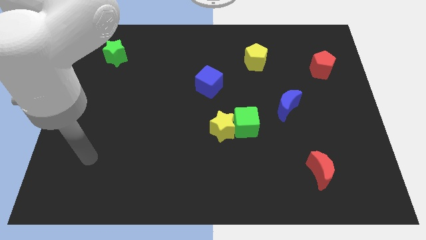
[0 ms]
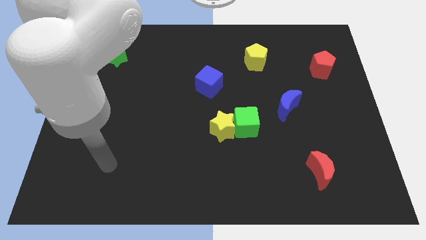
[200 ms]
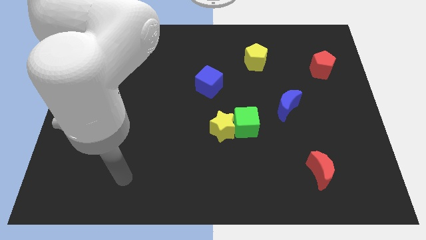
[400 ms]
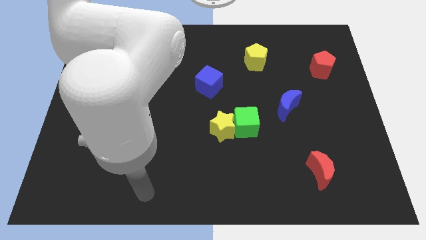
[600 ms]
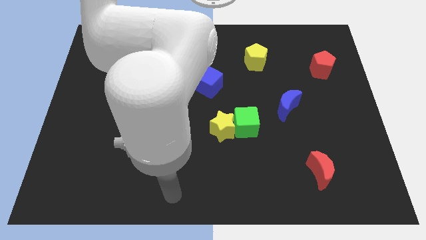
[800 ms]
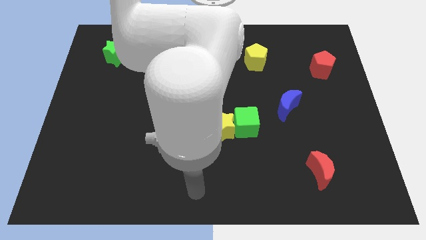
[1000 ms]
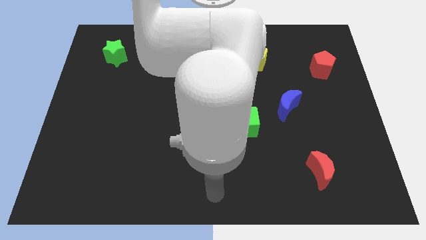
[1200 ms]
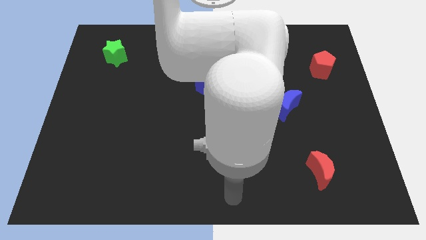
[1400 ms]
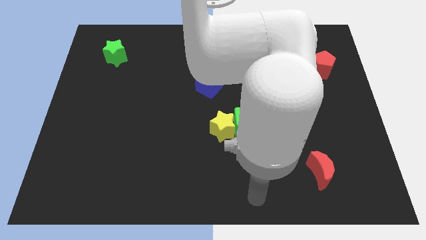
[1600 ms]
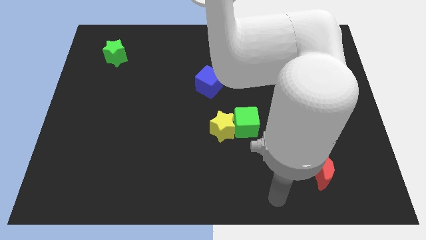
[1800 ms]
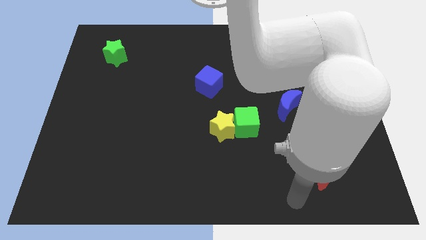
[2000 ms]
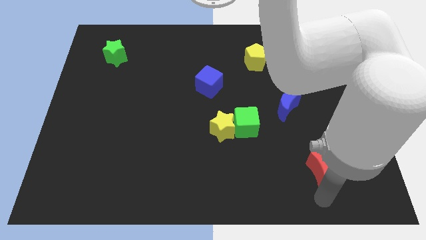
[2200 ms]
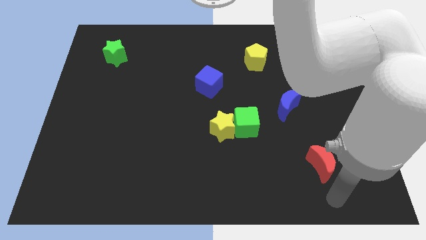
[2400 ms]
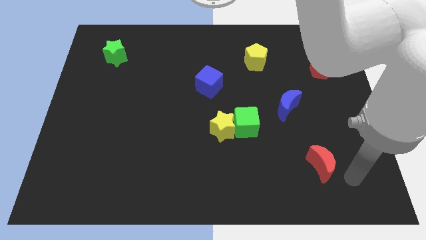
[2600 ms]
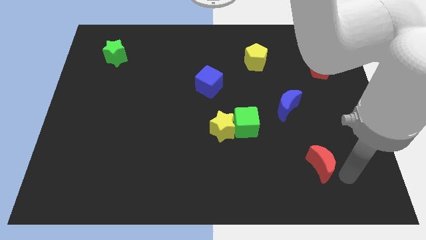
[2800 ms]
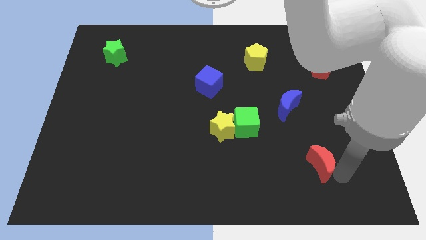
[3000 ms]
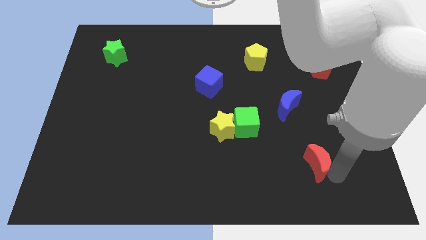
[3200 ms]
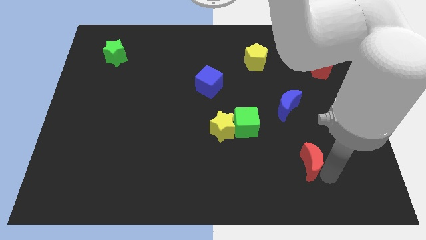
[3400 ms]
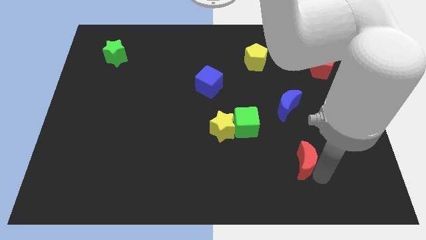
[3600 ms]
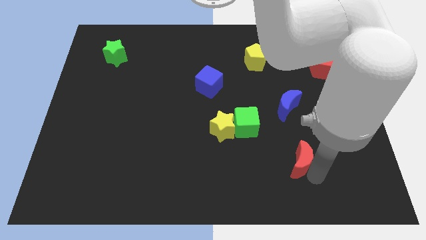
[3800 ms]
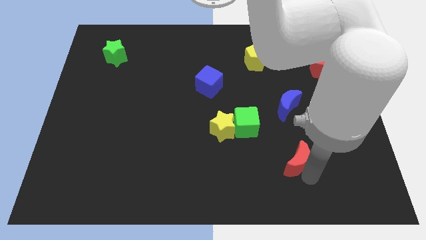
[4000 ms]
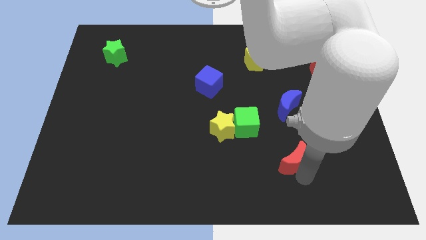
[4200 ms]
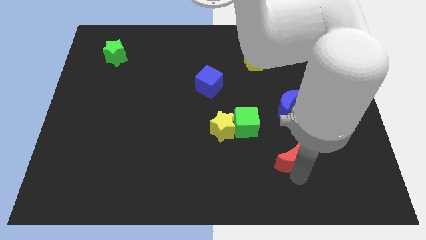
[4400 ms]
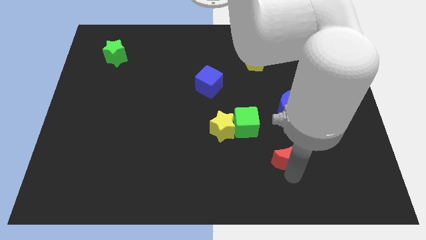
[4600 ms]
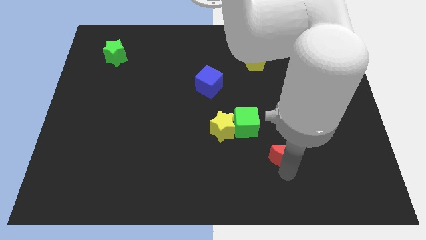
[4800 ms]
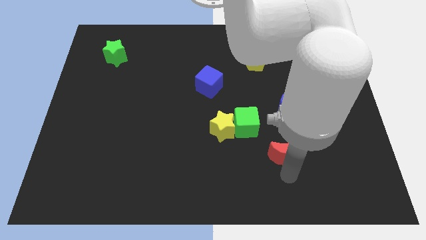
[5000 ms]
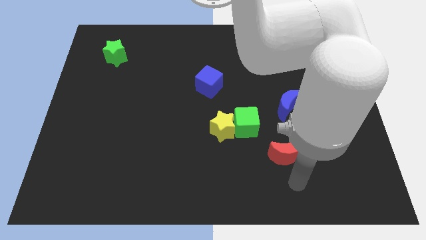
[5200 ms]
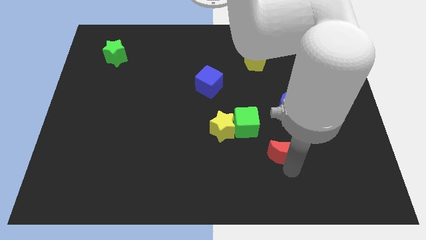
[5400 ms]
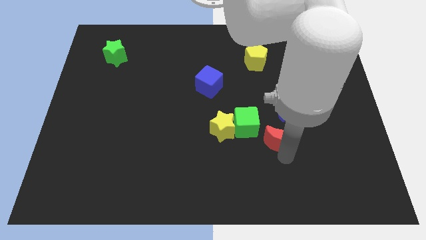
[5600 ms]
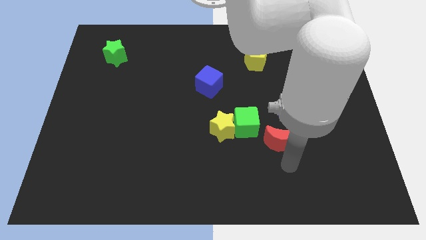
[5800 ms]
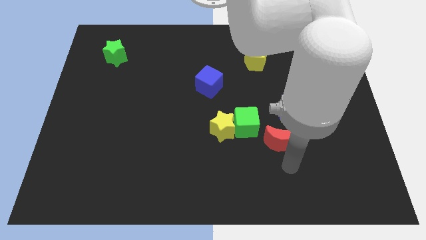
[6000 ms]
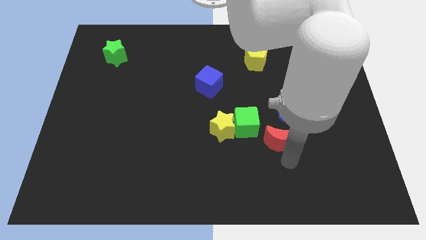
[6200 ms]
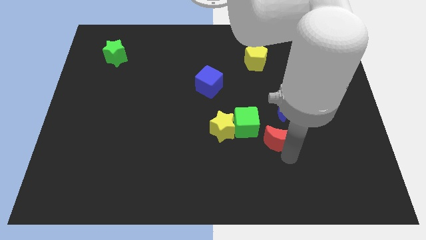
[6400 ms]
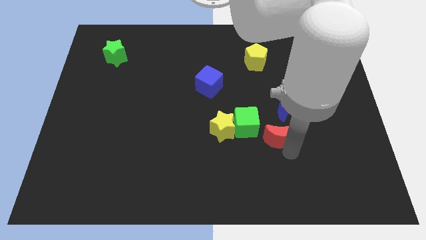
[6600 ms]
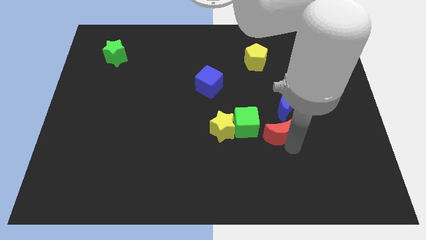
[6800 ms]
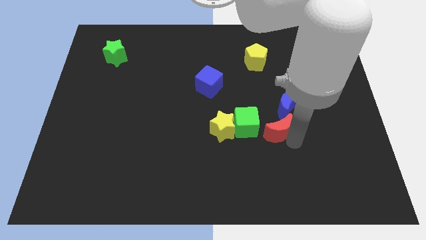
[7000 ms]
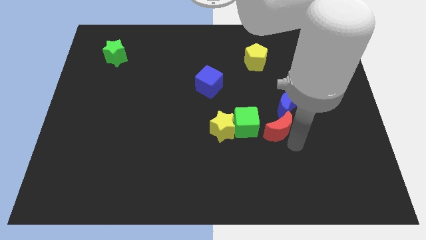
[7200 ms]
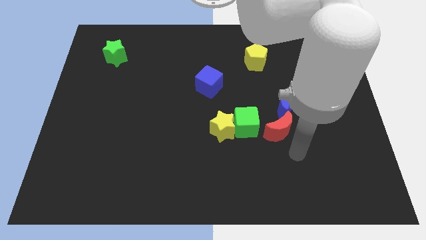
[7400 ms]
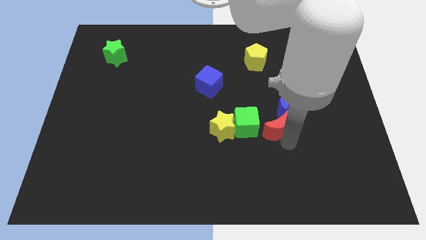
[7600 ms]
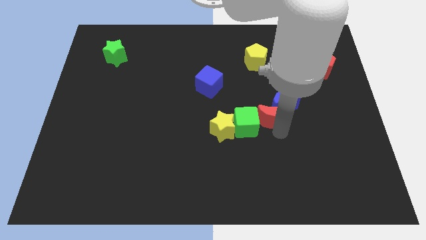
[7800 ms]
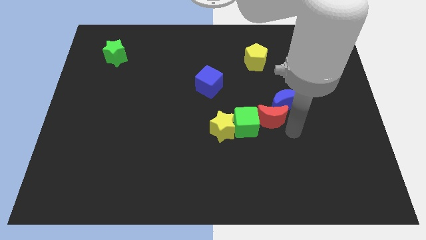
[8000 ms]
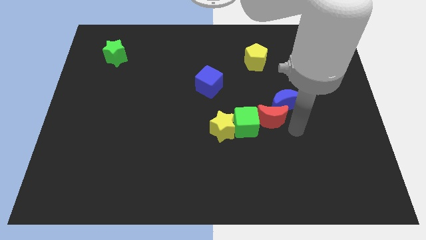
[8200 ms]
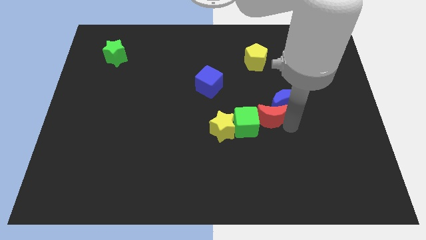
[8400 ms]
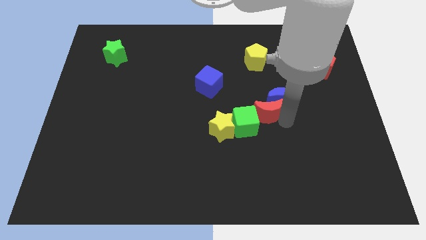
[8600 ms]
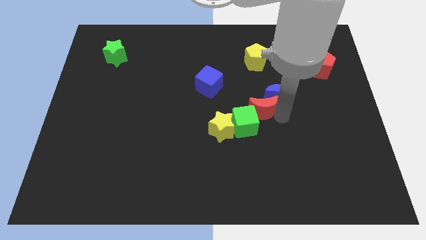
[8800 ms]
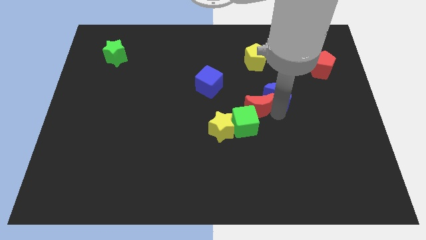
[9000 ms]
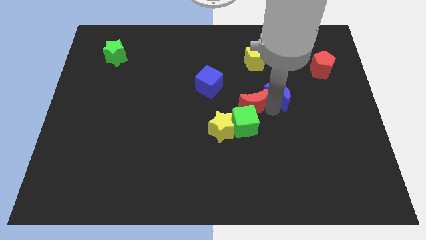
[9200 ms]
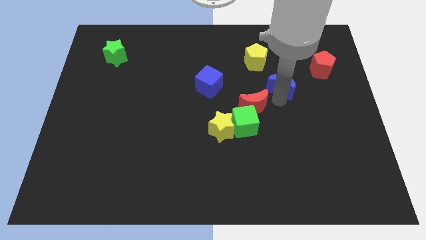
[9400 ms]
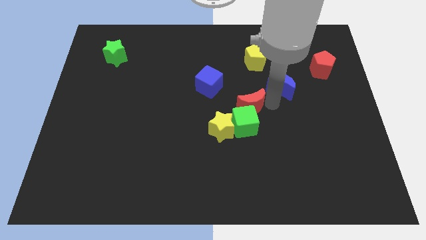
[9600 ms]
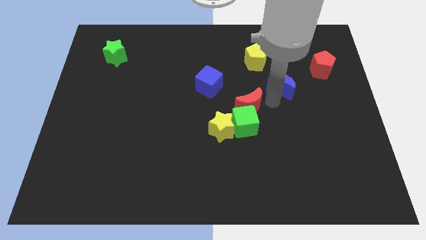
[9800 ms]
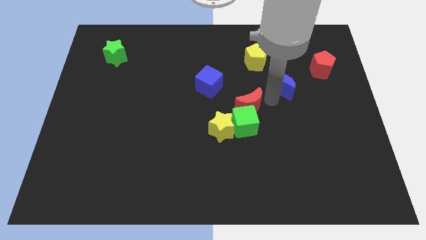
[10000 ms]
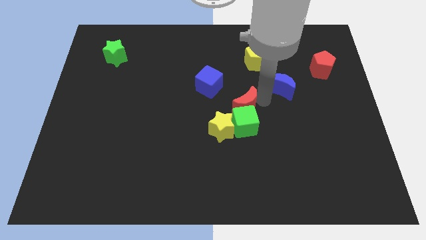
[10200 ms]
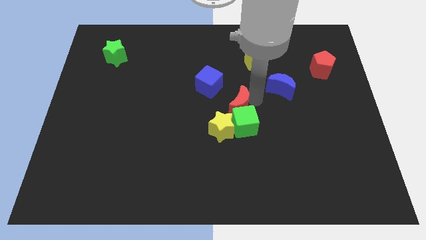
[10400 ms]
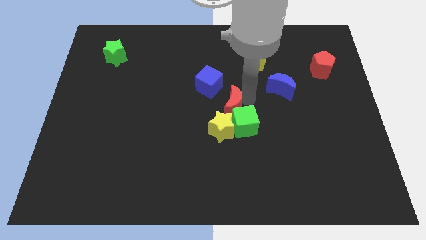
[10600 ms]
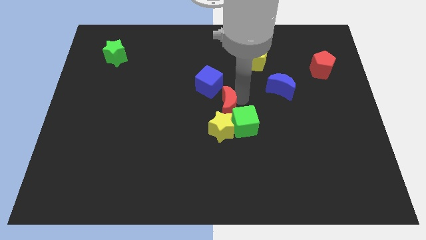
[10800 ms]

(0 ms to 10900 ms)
move the red moon below the blue cube

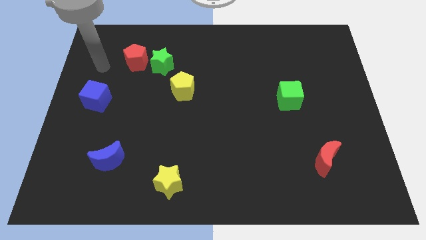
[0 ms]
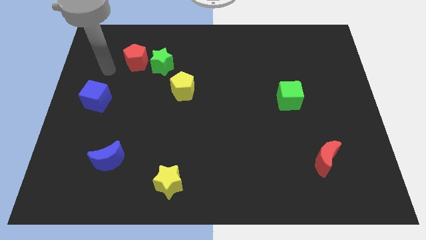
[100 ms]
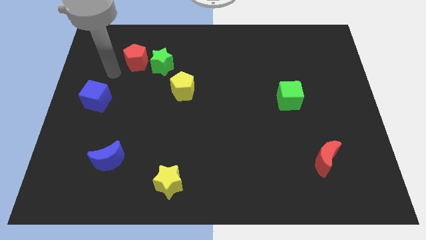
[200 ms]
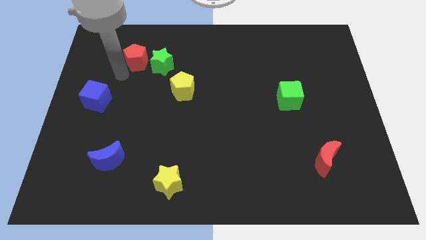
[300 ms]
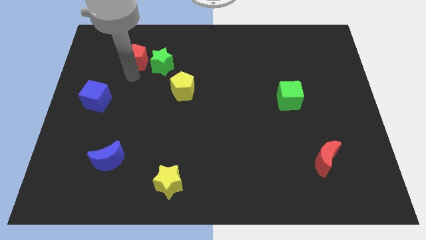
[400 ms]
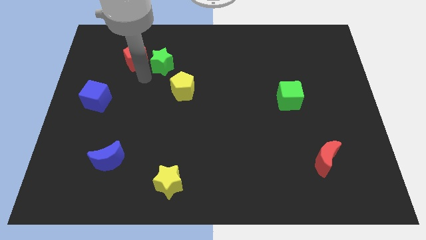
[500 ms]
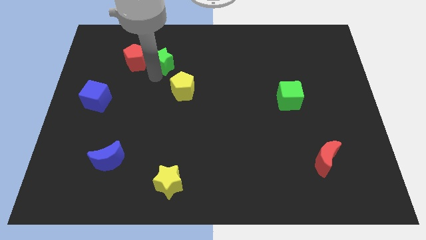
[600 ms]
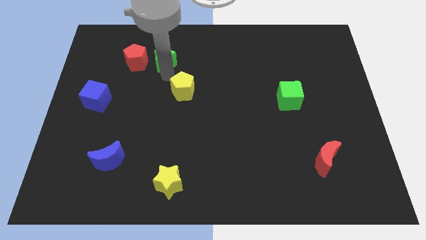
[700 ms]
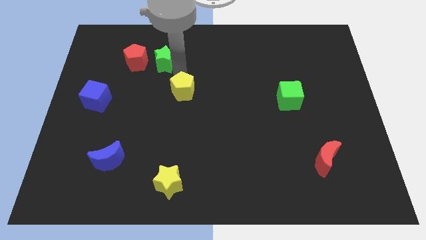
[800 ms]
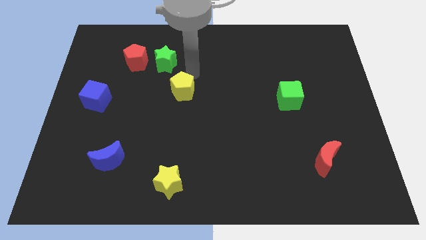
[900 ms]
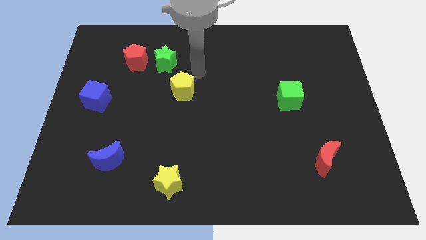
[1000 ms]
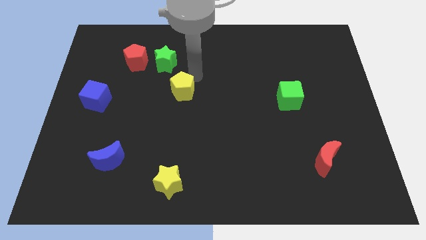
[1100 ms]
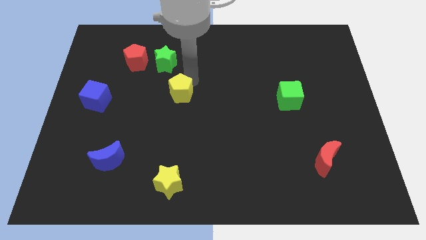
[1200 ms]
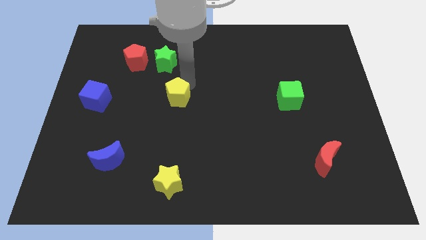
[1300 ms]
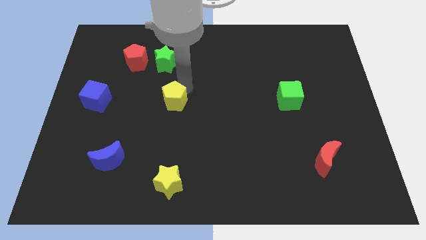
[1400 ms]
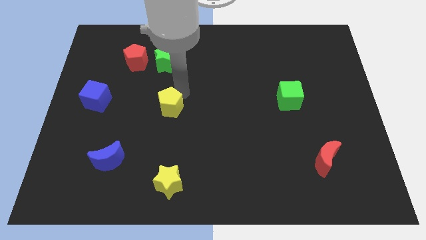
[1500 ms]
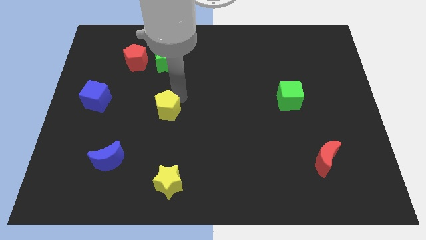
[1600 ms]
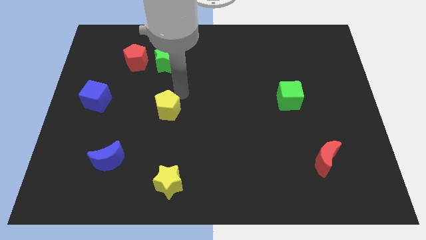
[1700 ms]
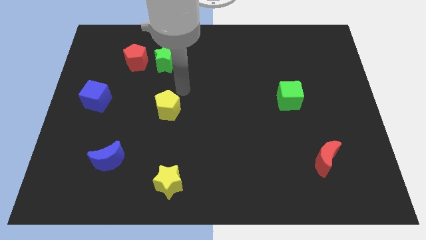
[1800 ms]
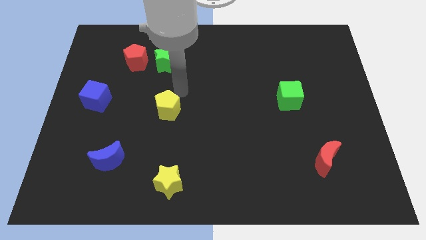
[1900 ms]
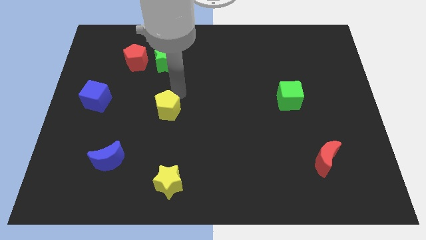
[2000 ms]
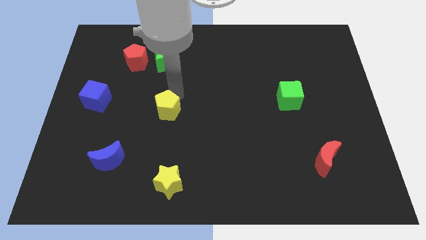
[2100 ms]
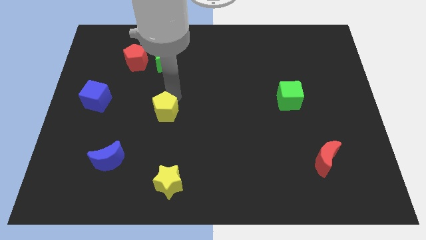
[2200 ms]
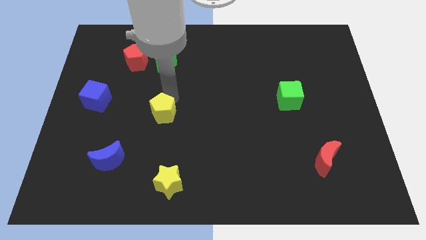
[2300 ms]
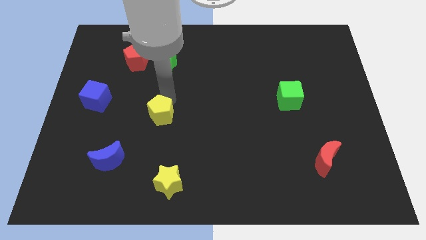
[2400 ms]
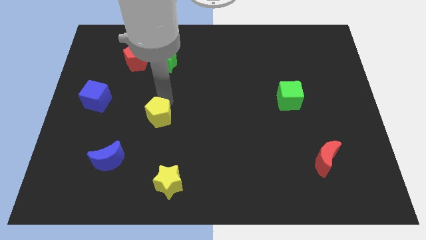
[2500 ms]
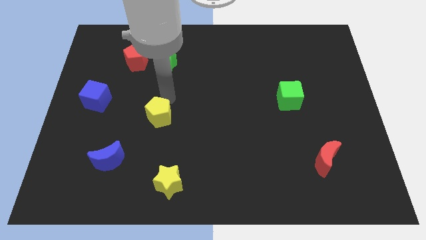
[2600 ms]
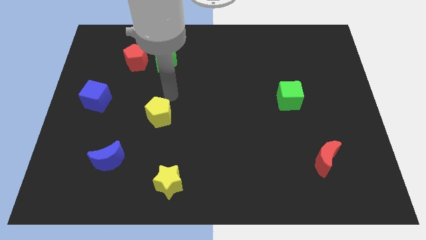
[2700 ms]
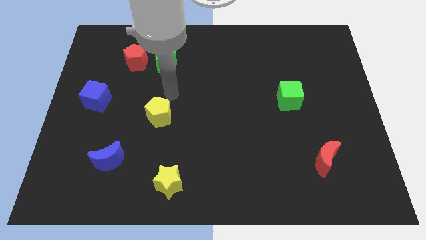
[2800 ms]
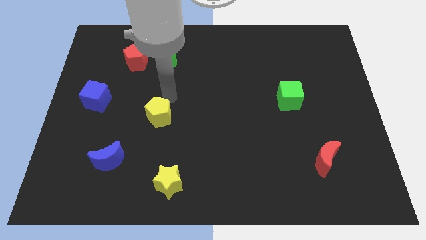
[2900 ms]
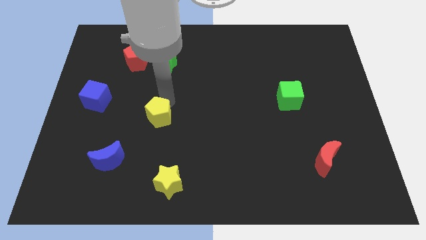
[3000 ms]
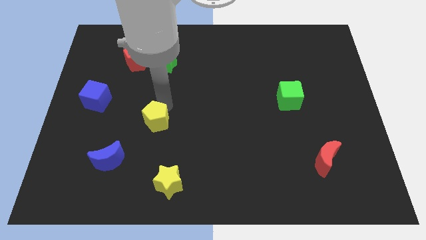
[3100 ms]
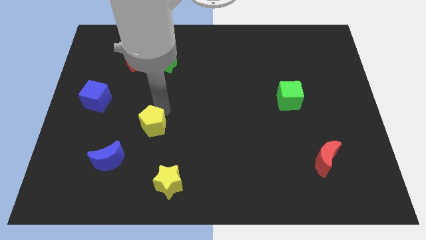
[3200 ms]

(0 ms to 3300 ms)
put the yellow pentagon to the top right of the blue moon
